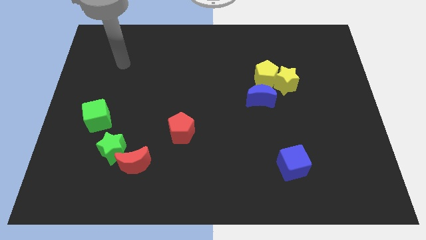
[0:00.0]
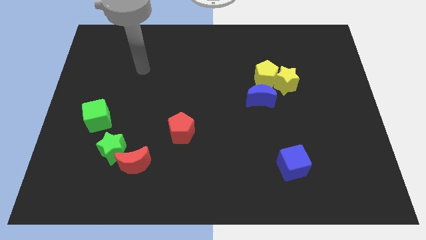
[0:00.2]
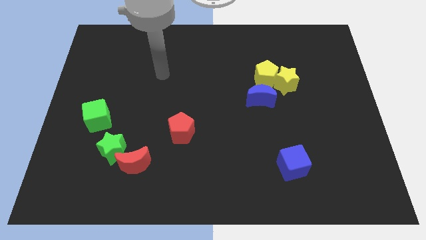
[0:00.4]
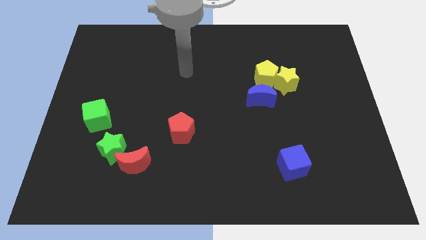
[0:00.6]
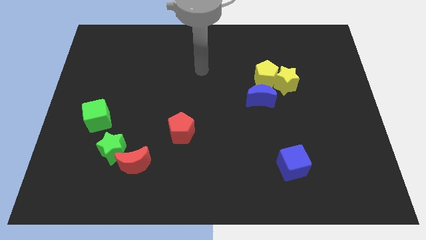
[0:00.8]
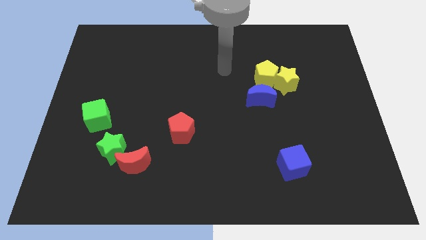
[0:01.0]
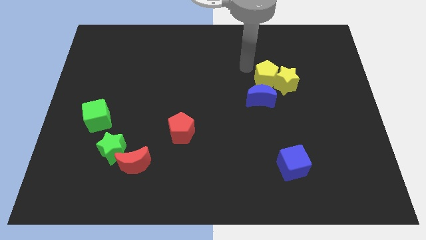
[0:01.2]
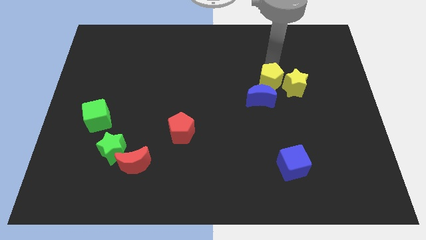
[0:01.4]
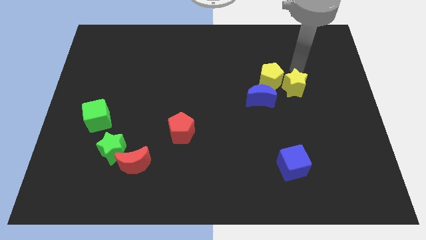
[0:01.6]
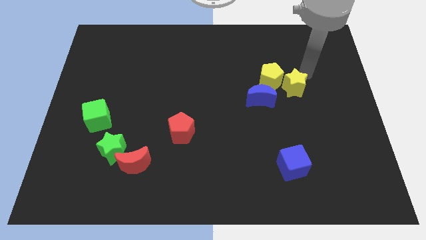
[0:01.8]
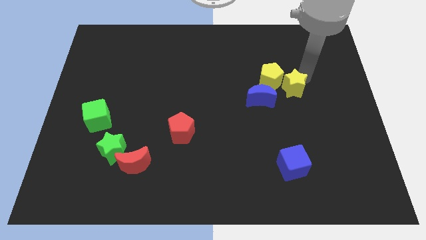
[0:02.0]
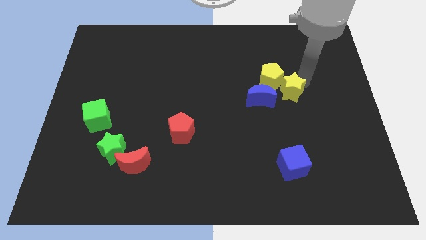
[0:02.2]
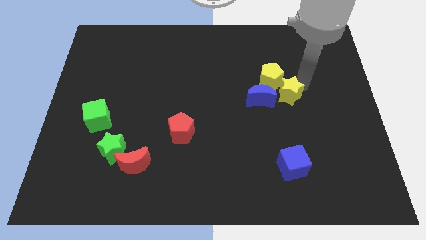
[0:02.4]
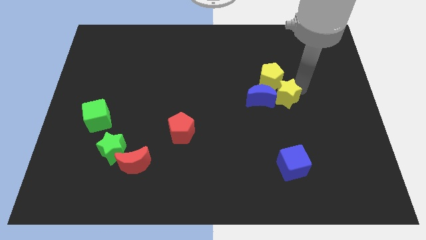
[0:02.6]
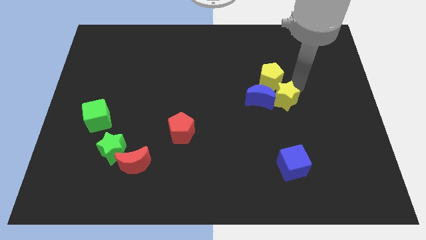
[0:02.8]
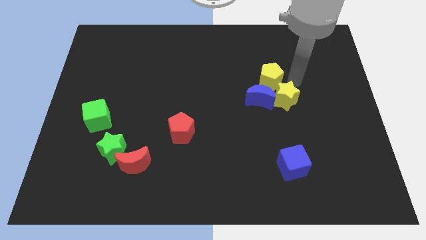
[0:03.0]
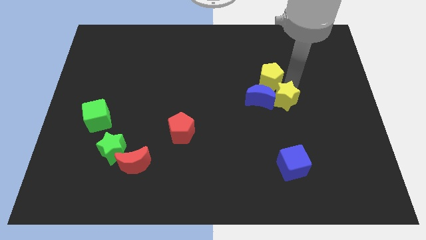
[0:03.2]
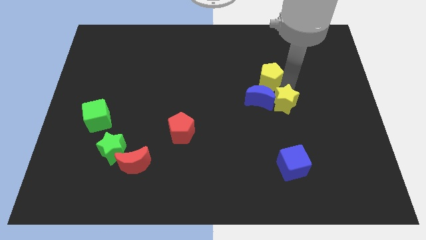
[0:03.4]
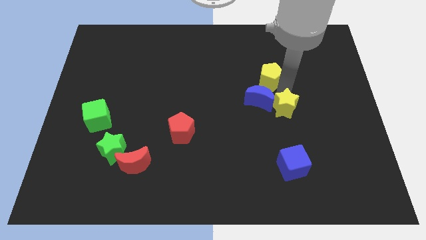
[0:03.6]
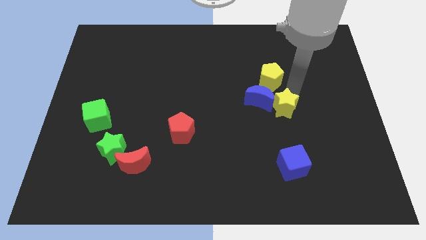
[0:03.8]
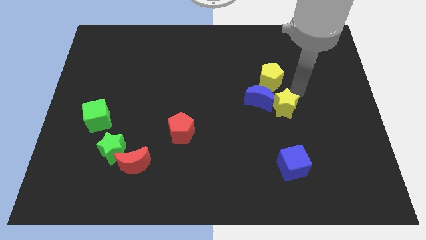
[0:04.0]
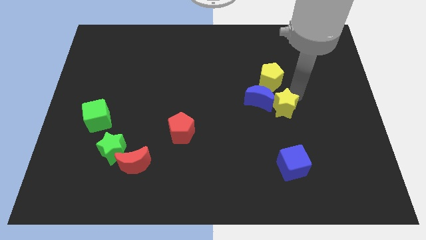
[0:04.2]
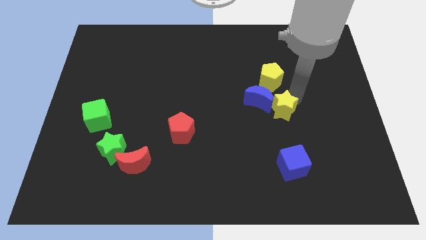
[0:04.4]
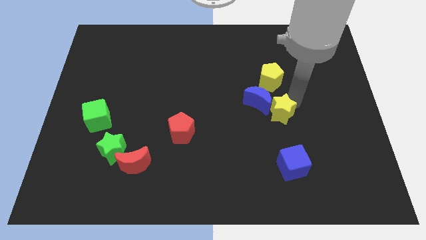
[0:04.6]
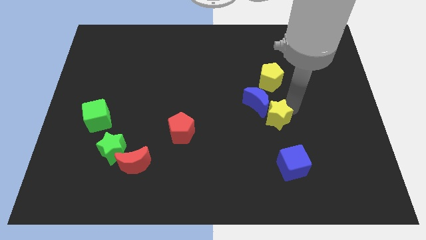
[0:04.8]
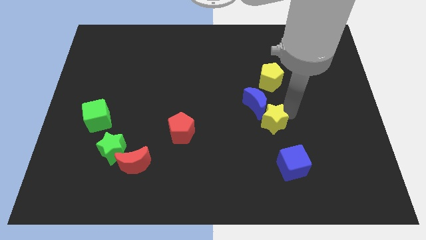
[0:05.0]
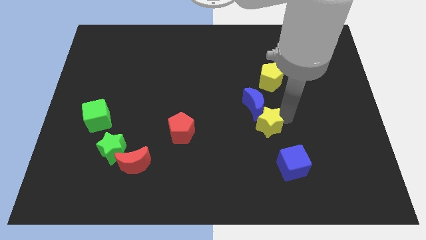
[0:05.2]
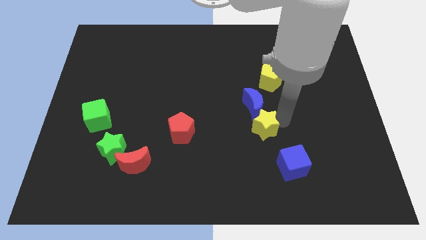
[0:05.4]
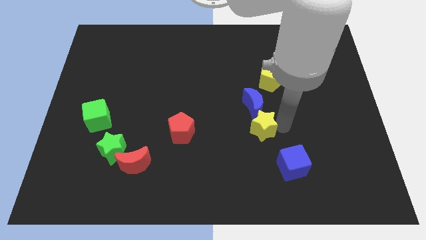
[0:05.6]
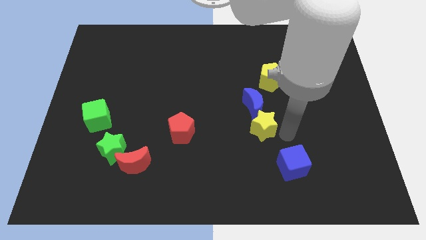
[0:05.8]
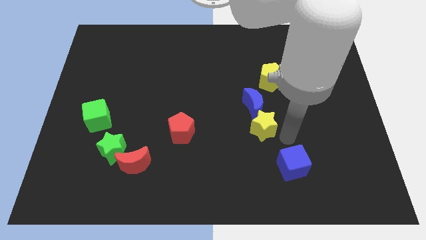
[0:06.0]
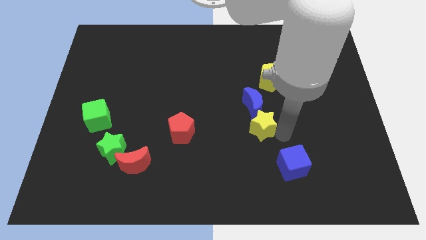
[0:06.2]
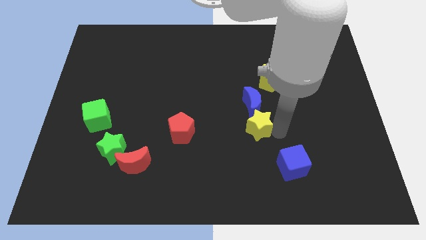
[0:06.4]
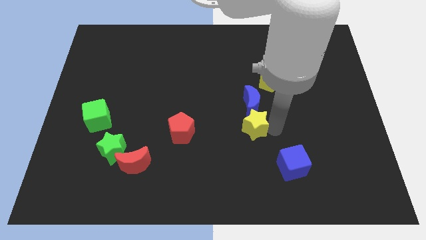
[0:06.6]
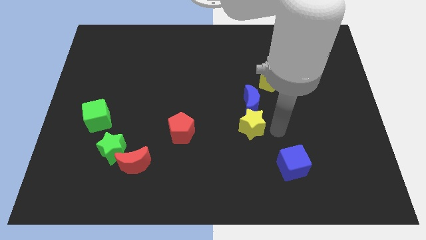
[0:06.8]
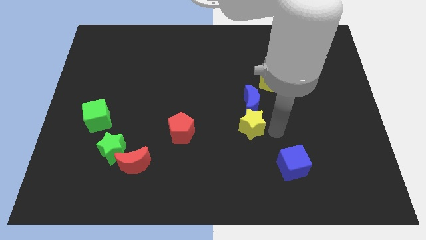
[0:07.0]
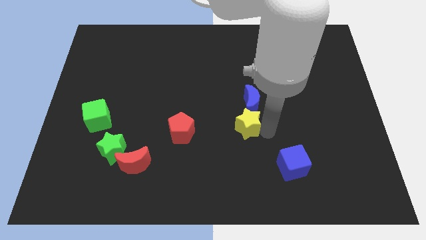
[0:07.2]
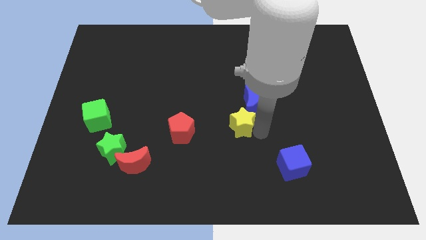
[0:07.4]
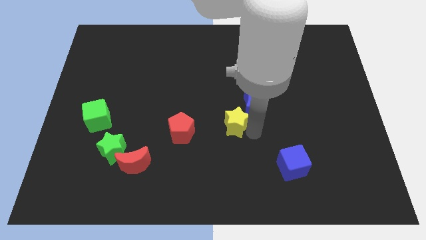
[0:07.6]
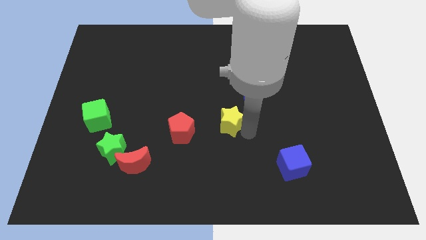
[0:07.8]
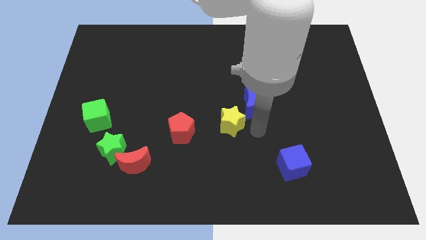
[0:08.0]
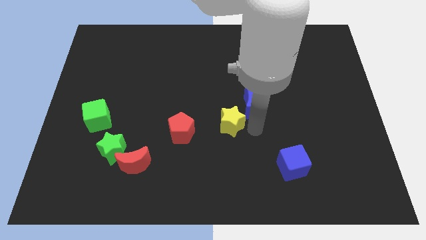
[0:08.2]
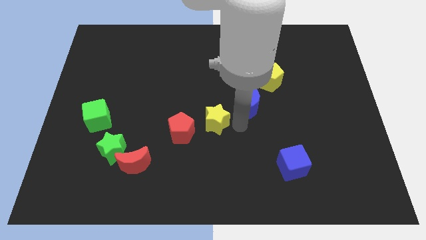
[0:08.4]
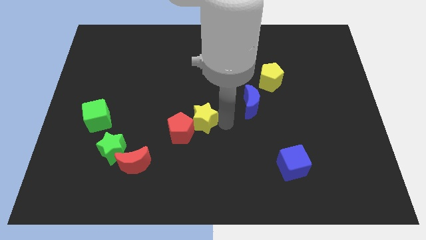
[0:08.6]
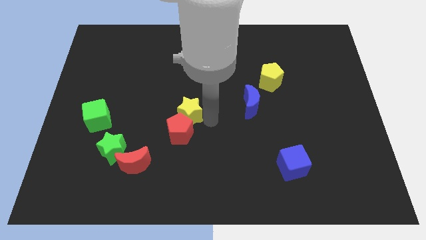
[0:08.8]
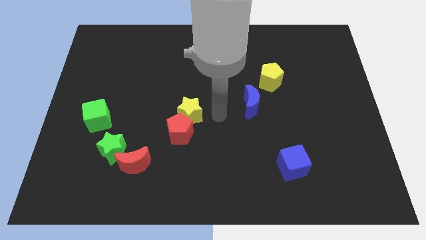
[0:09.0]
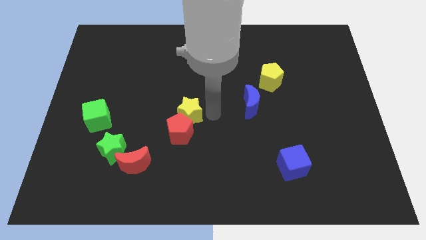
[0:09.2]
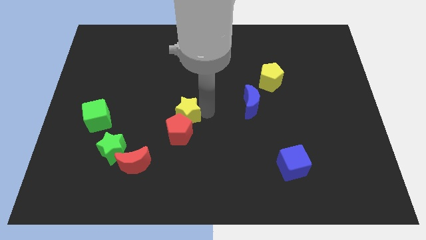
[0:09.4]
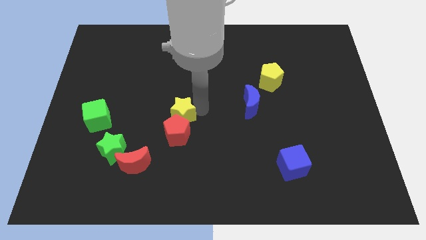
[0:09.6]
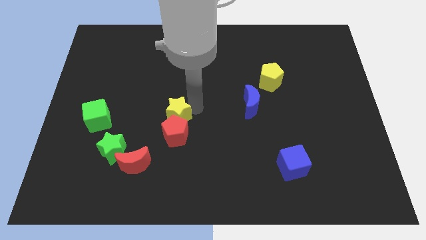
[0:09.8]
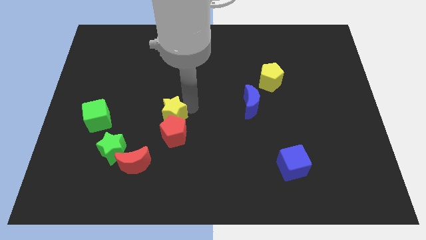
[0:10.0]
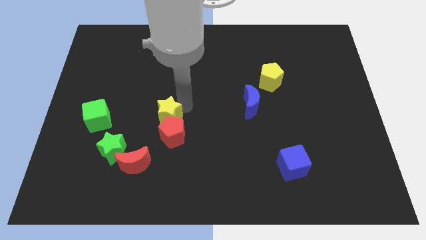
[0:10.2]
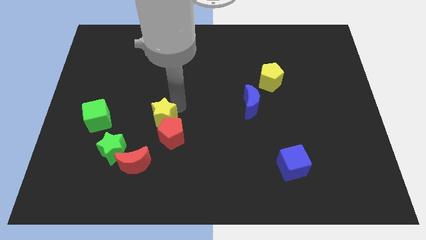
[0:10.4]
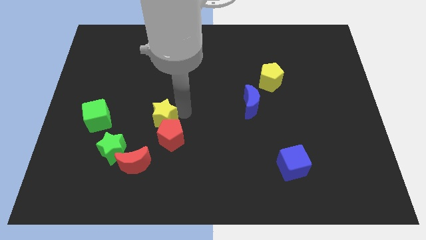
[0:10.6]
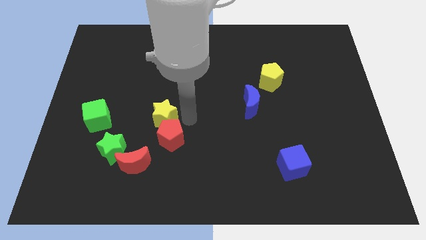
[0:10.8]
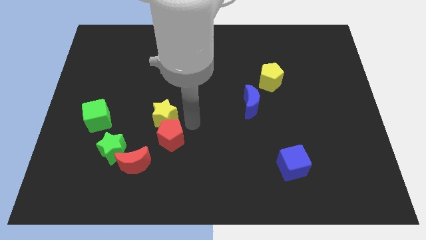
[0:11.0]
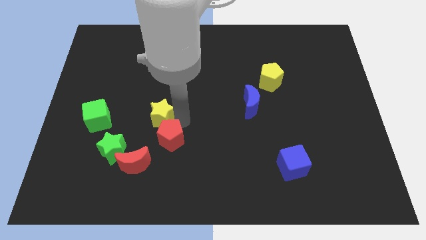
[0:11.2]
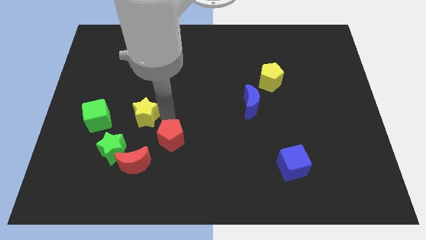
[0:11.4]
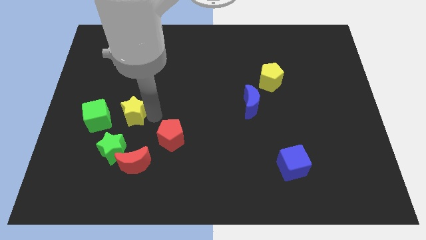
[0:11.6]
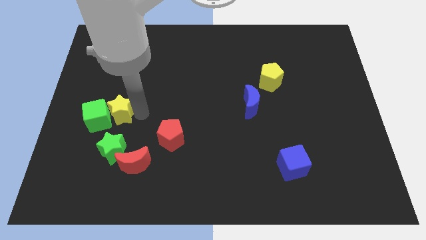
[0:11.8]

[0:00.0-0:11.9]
push the yellow star next to the green cube

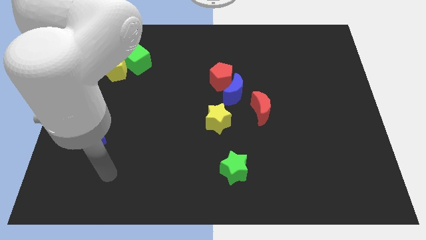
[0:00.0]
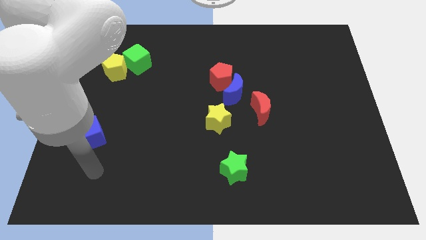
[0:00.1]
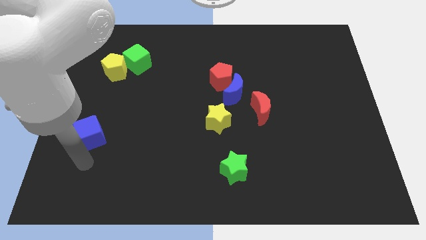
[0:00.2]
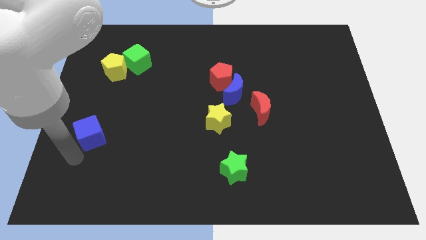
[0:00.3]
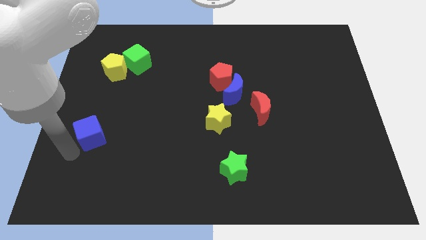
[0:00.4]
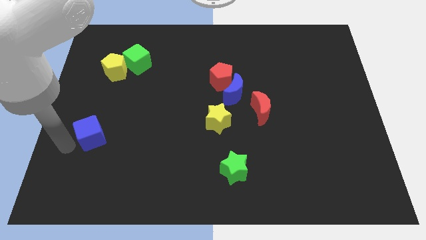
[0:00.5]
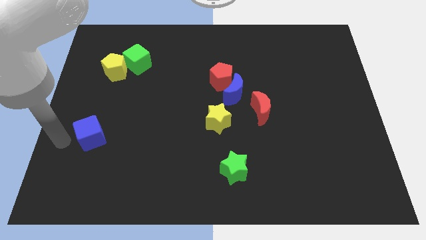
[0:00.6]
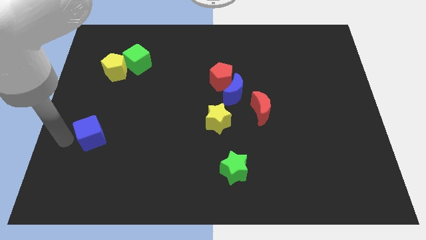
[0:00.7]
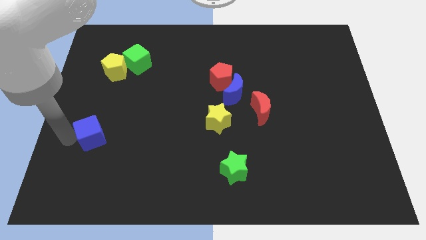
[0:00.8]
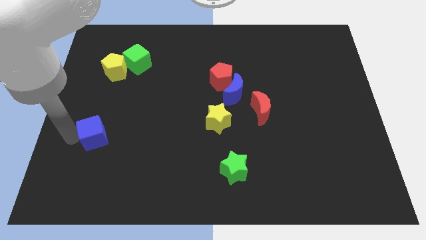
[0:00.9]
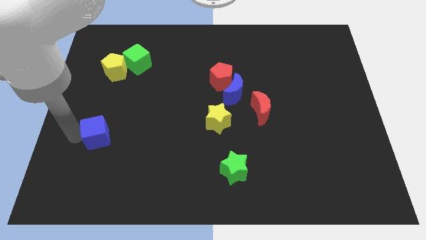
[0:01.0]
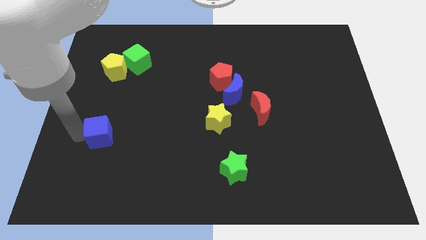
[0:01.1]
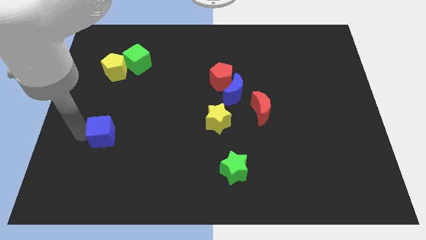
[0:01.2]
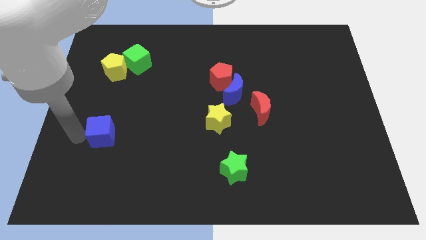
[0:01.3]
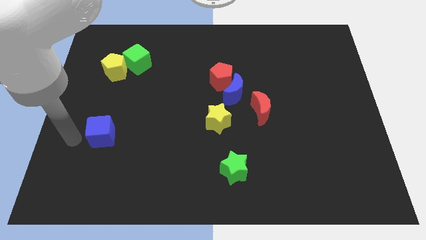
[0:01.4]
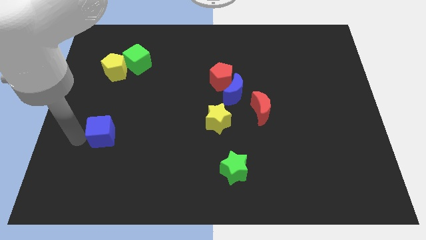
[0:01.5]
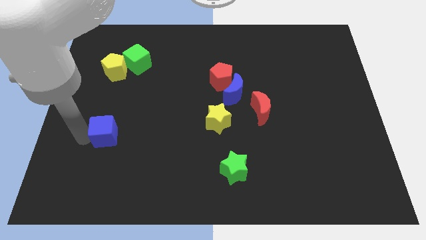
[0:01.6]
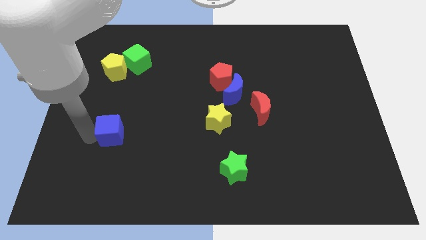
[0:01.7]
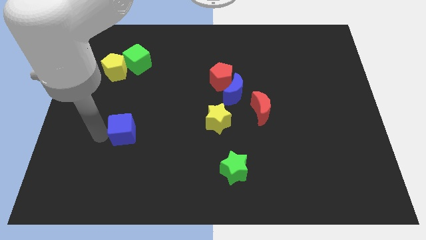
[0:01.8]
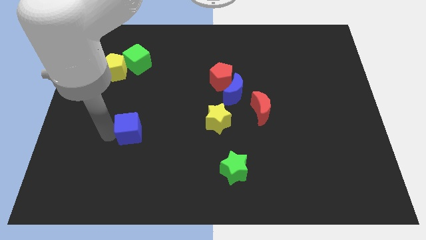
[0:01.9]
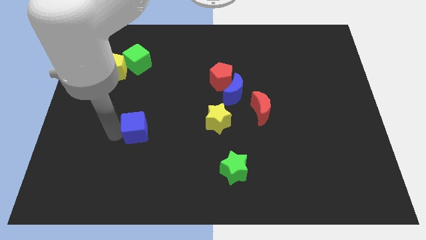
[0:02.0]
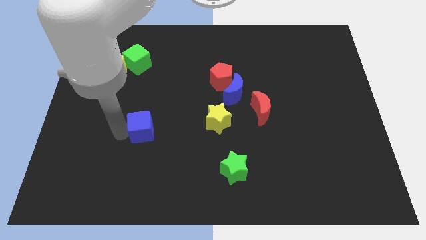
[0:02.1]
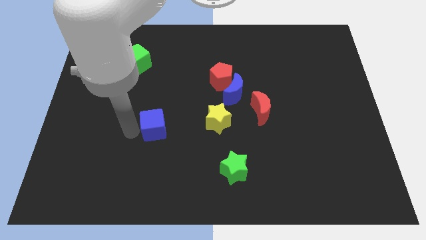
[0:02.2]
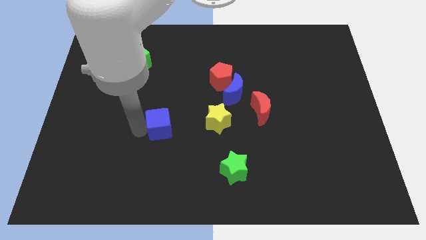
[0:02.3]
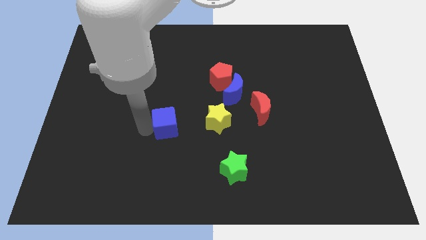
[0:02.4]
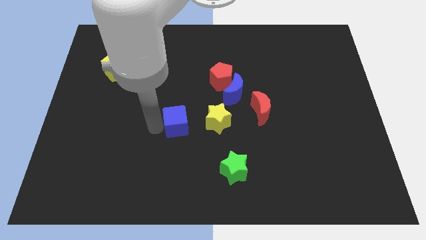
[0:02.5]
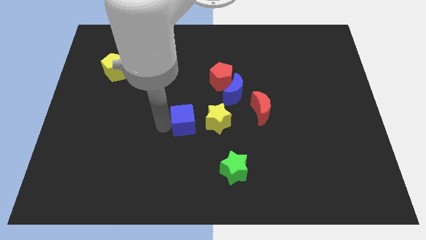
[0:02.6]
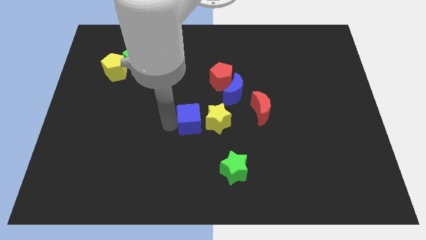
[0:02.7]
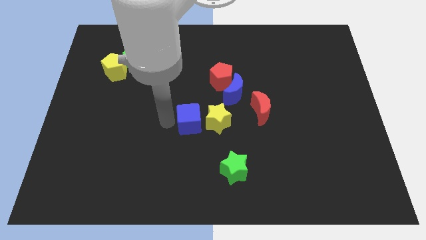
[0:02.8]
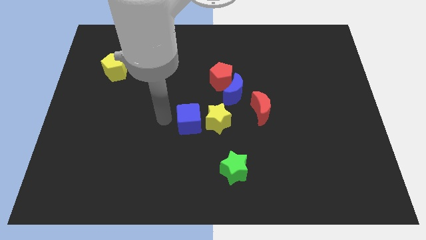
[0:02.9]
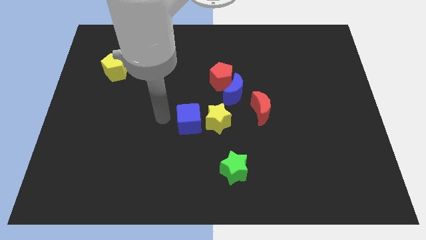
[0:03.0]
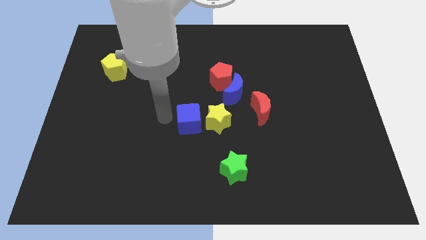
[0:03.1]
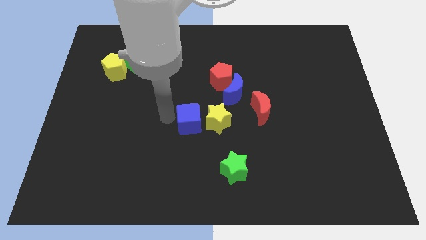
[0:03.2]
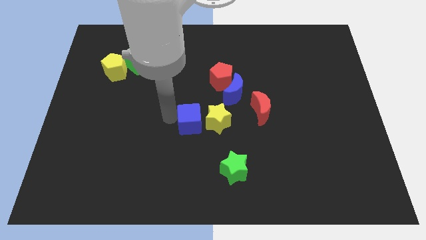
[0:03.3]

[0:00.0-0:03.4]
move the blue cube close to the yellow star
